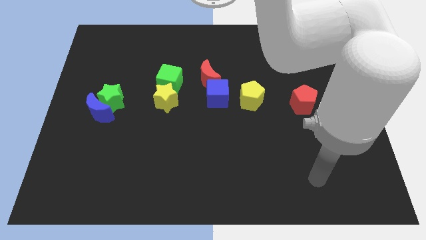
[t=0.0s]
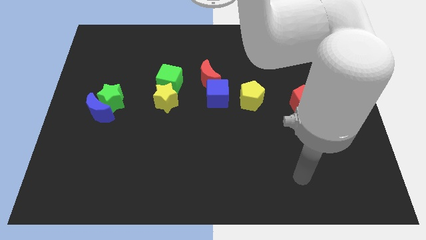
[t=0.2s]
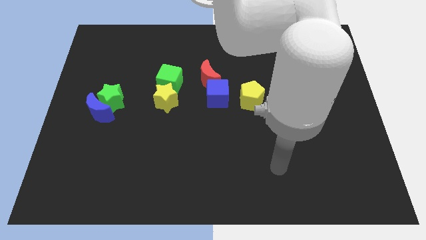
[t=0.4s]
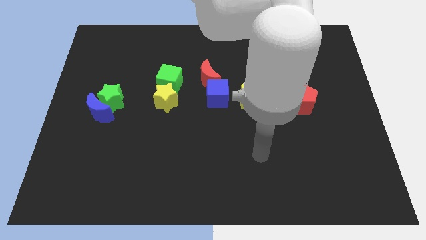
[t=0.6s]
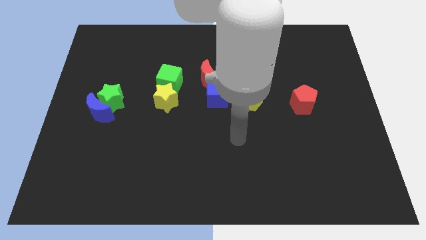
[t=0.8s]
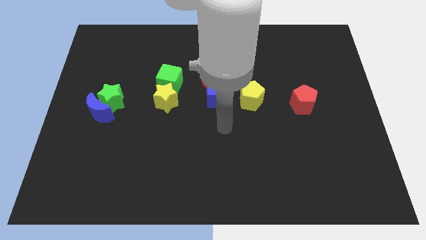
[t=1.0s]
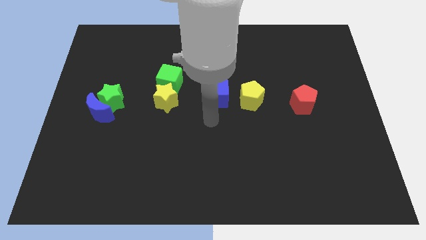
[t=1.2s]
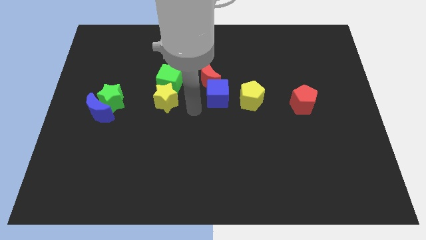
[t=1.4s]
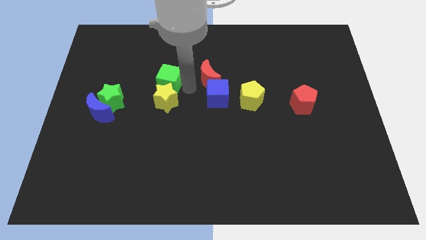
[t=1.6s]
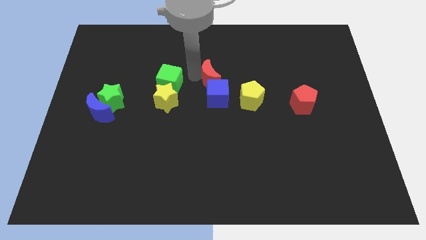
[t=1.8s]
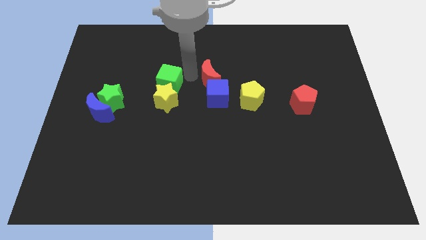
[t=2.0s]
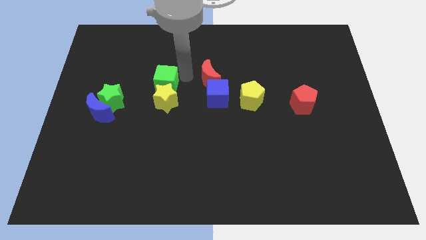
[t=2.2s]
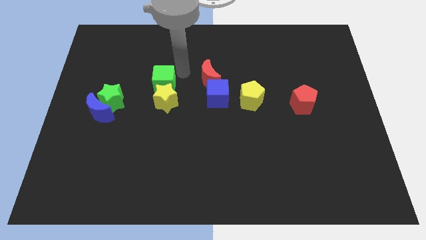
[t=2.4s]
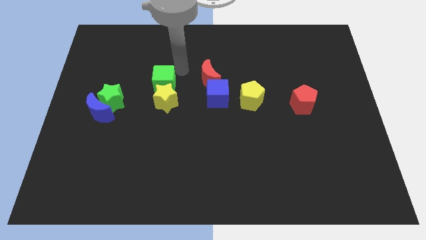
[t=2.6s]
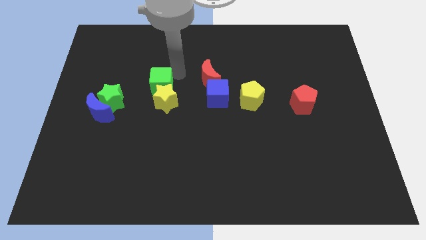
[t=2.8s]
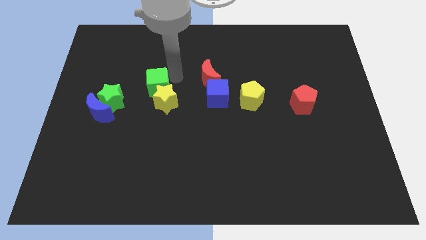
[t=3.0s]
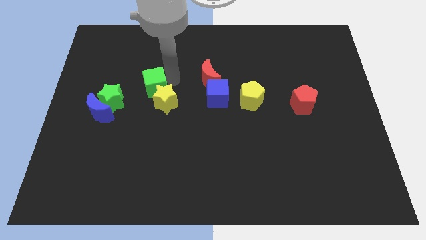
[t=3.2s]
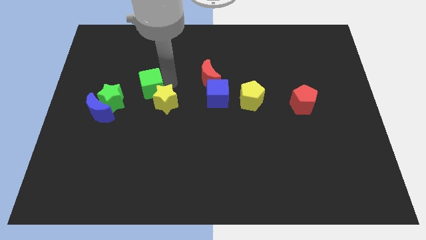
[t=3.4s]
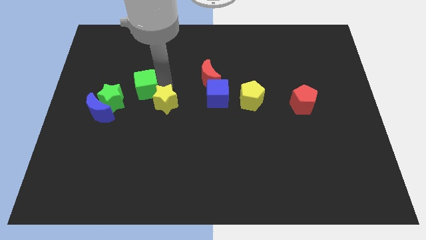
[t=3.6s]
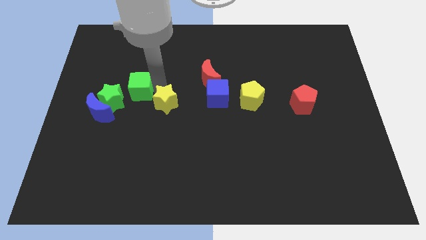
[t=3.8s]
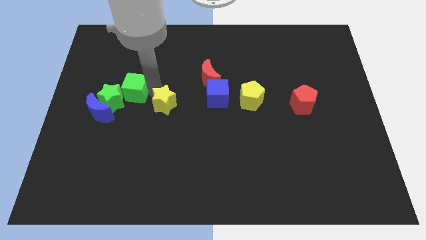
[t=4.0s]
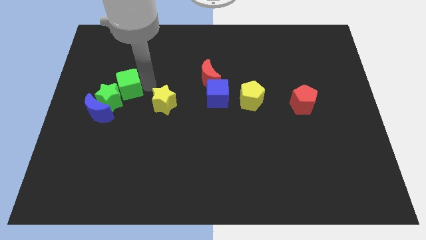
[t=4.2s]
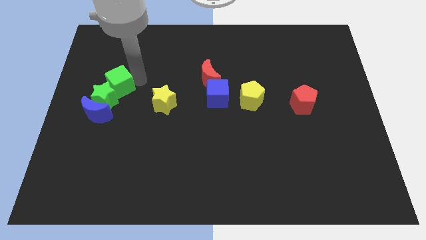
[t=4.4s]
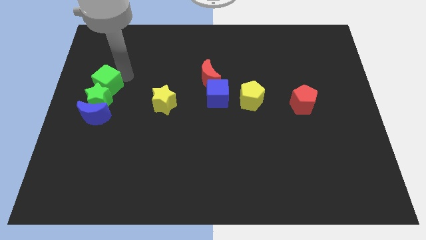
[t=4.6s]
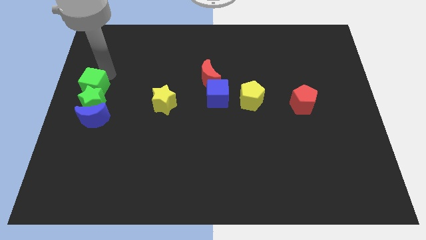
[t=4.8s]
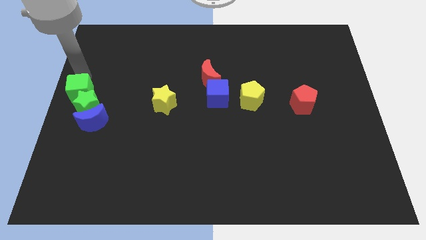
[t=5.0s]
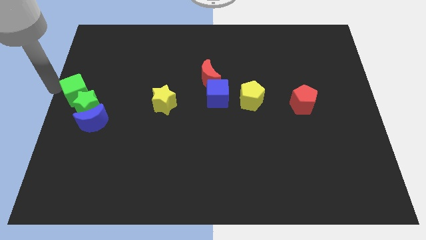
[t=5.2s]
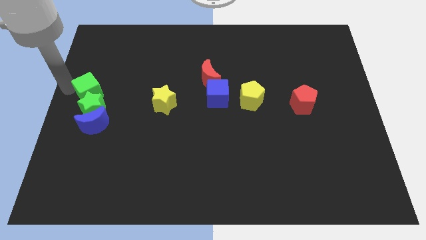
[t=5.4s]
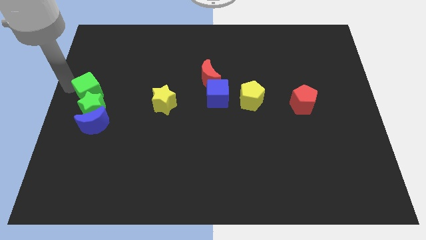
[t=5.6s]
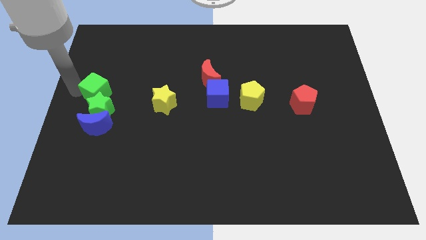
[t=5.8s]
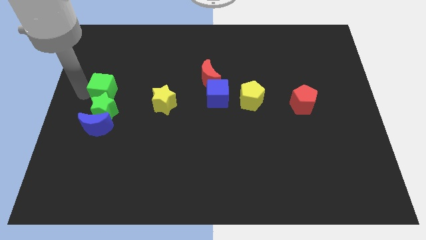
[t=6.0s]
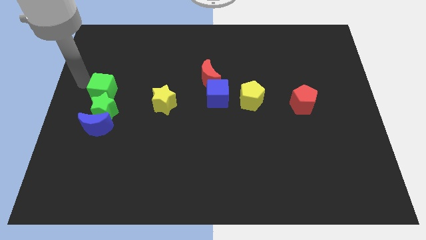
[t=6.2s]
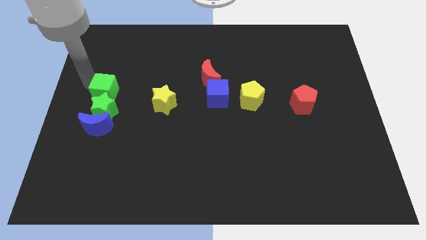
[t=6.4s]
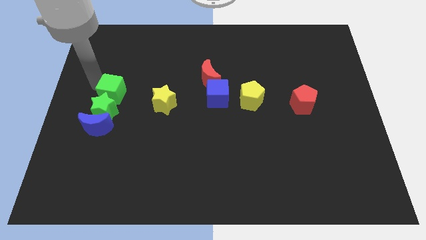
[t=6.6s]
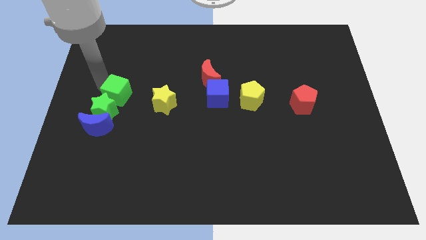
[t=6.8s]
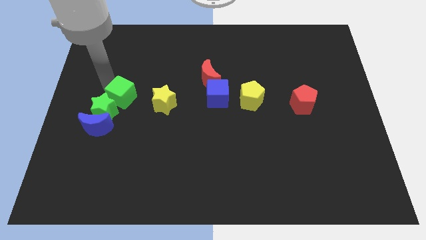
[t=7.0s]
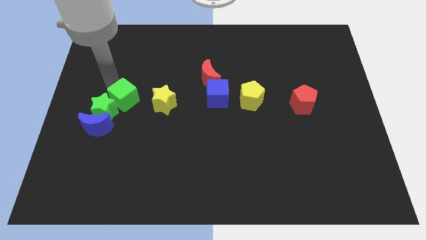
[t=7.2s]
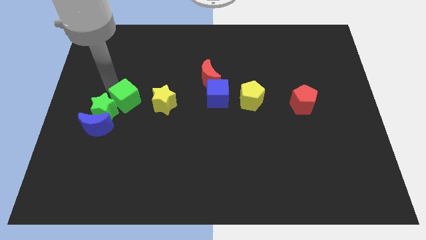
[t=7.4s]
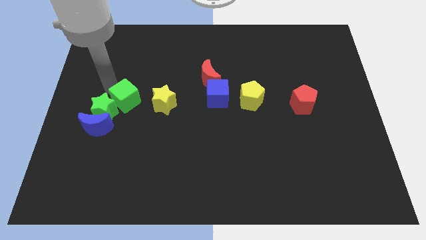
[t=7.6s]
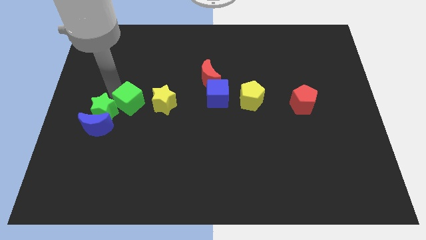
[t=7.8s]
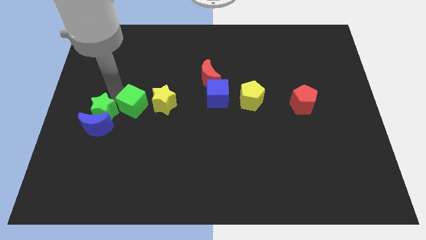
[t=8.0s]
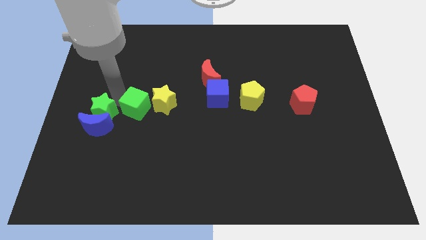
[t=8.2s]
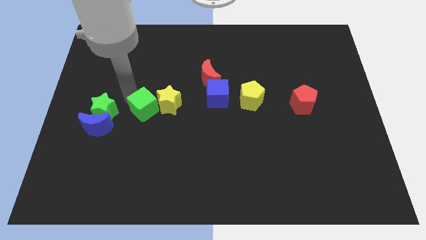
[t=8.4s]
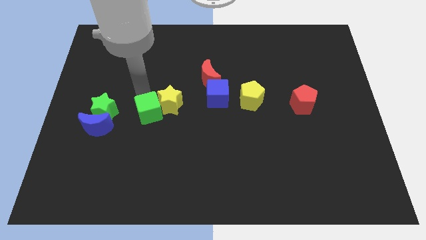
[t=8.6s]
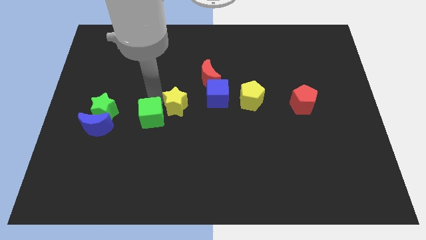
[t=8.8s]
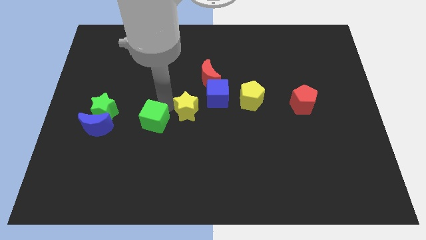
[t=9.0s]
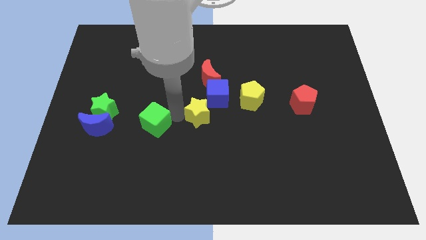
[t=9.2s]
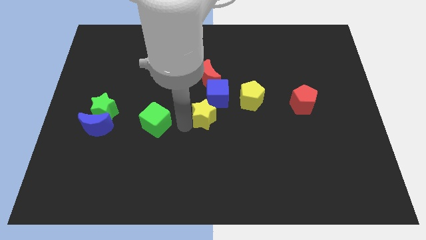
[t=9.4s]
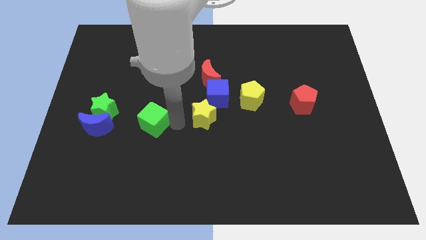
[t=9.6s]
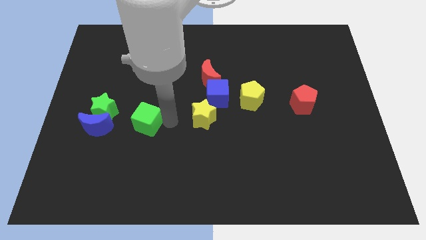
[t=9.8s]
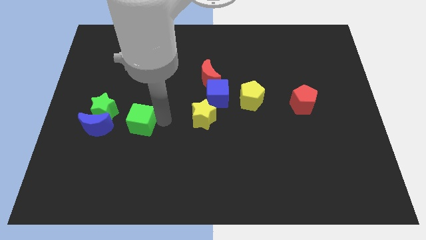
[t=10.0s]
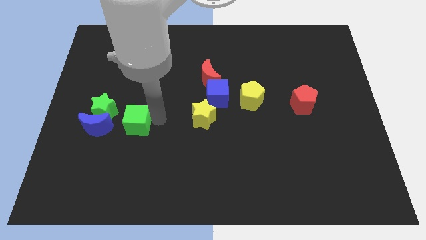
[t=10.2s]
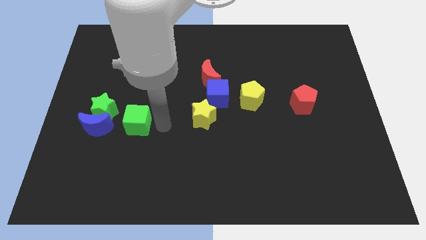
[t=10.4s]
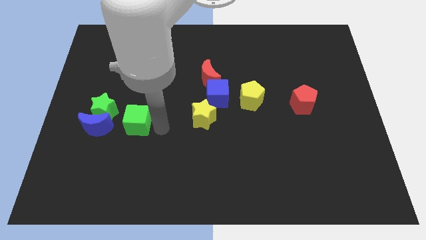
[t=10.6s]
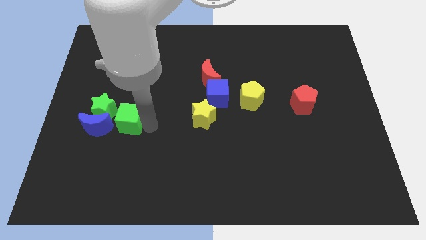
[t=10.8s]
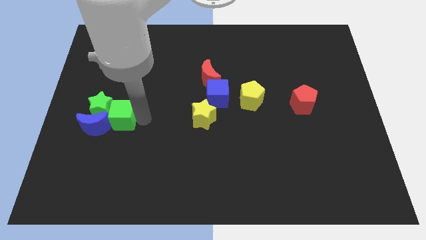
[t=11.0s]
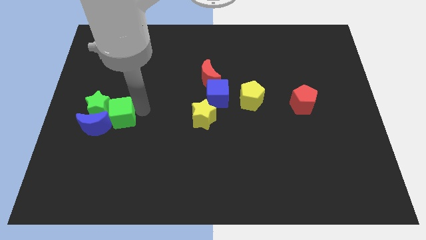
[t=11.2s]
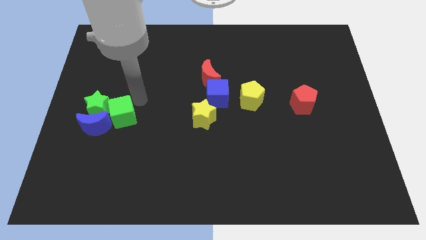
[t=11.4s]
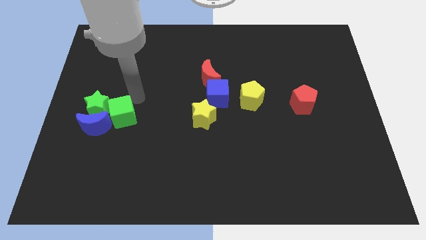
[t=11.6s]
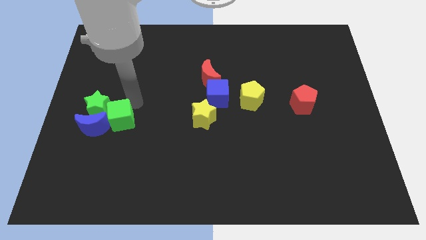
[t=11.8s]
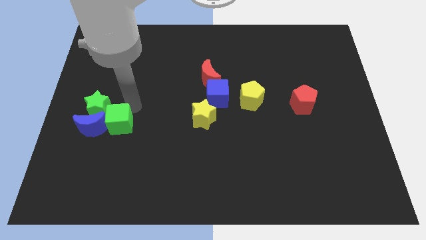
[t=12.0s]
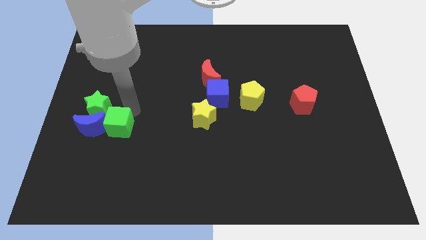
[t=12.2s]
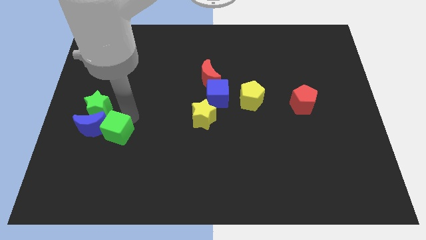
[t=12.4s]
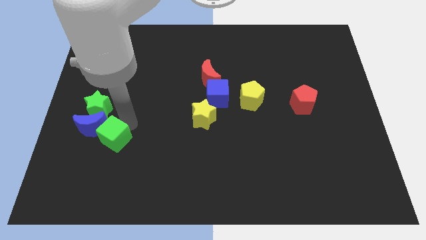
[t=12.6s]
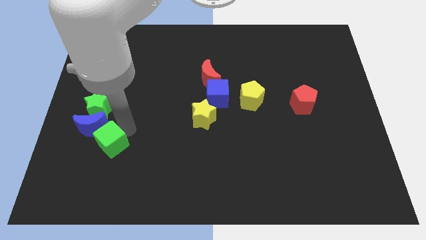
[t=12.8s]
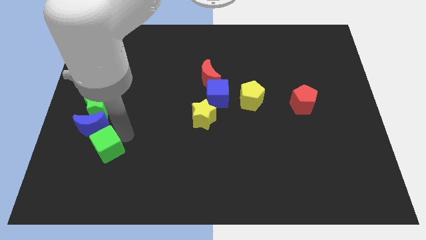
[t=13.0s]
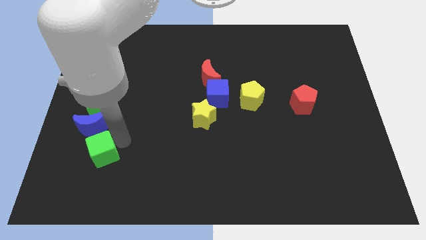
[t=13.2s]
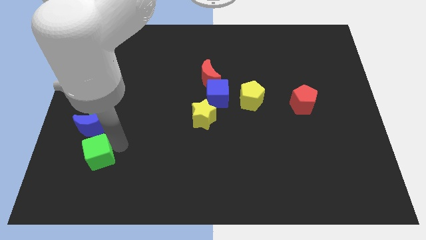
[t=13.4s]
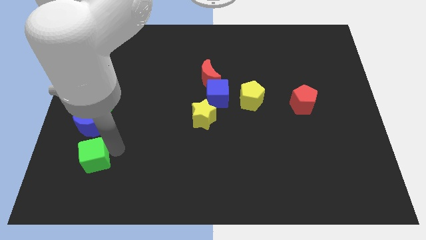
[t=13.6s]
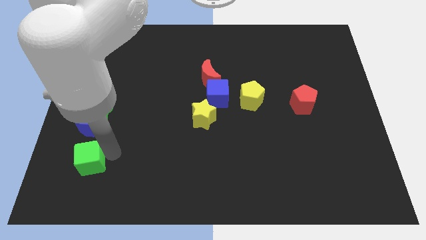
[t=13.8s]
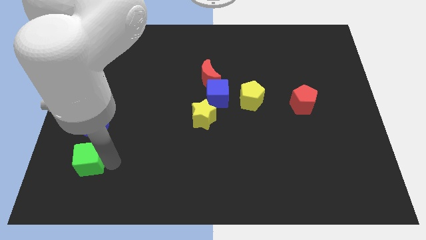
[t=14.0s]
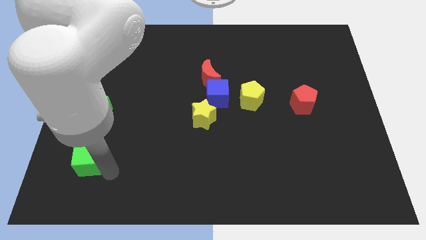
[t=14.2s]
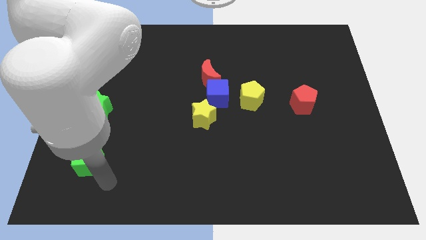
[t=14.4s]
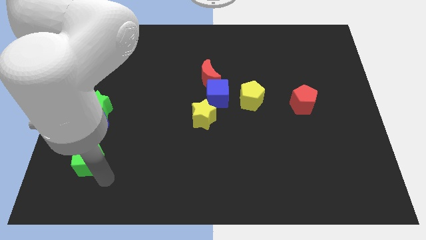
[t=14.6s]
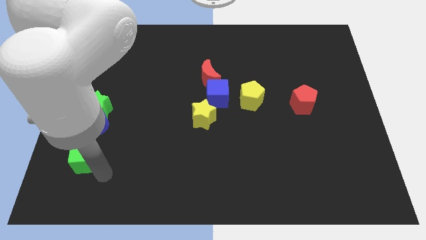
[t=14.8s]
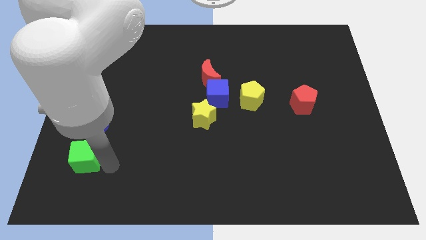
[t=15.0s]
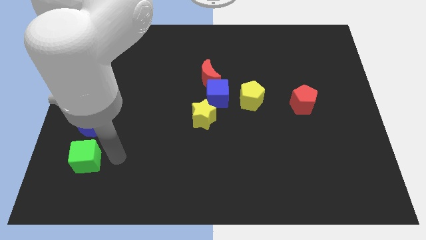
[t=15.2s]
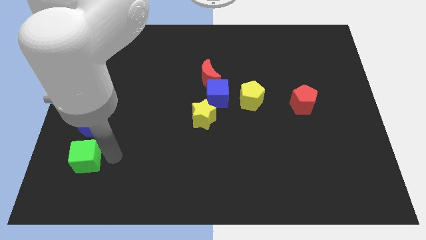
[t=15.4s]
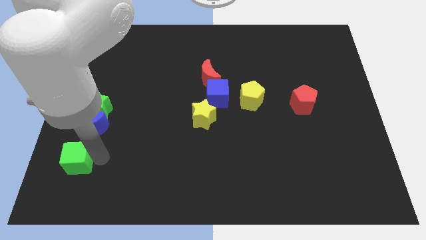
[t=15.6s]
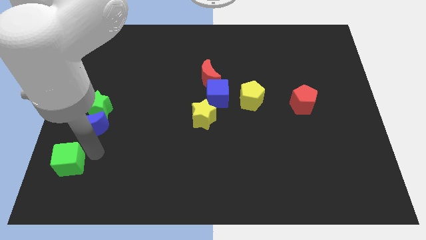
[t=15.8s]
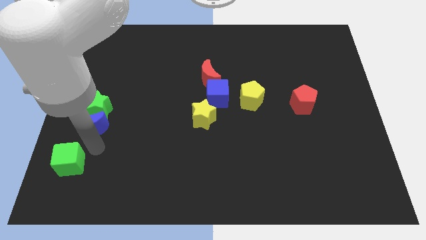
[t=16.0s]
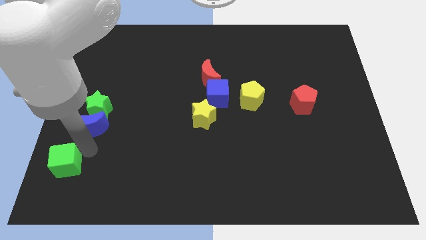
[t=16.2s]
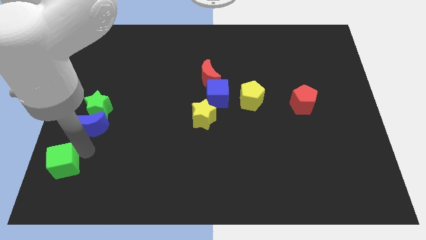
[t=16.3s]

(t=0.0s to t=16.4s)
put the green cube to the bottom left corner
